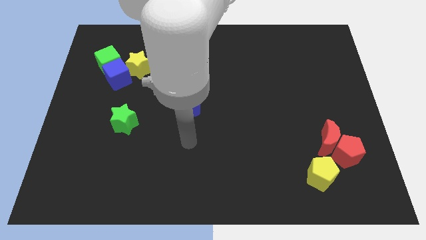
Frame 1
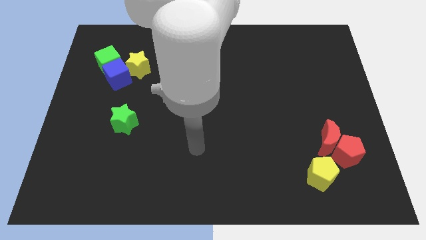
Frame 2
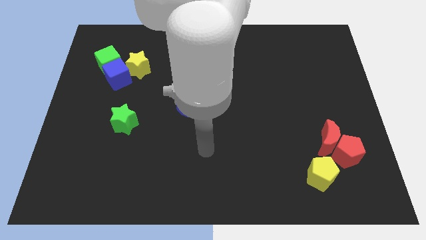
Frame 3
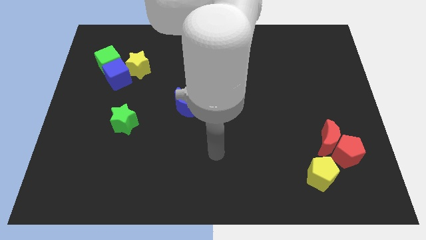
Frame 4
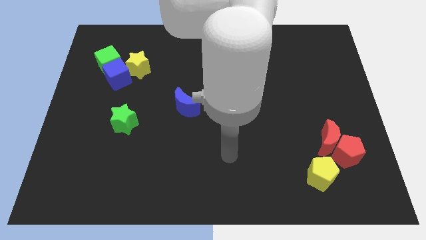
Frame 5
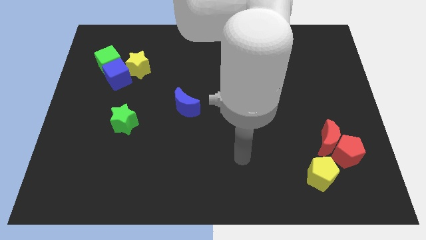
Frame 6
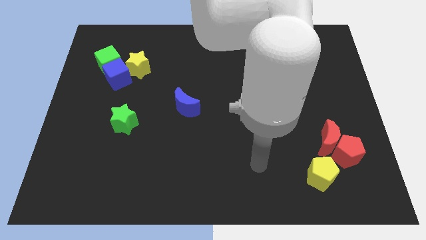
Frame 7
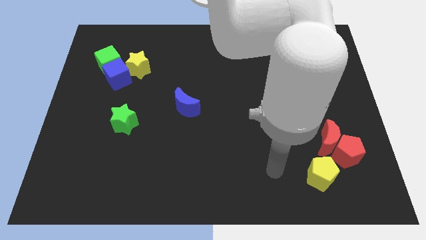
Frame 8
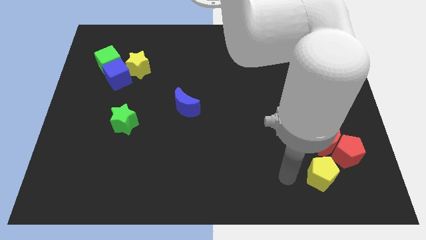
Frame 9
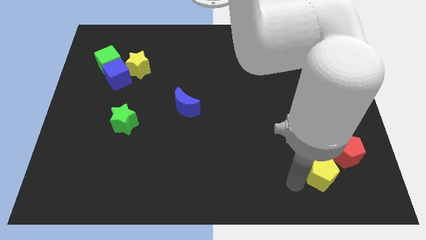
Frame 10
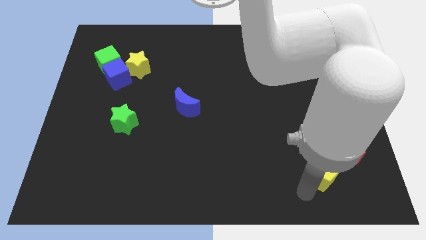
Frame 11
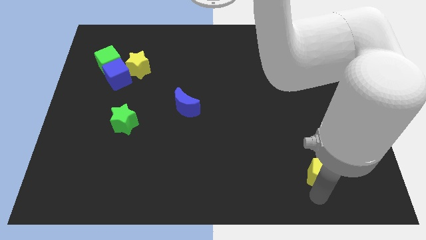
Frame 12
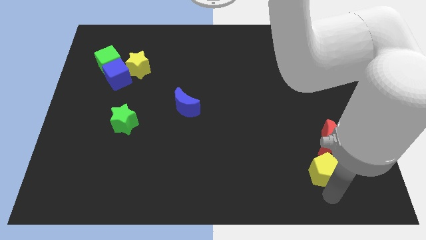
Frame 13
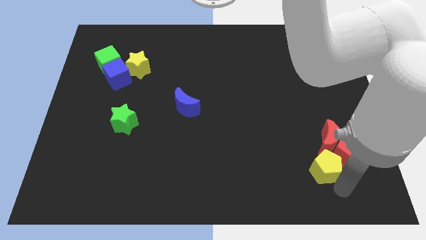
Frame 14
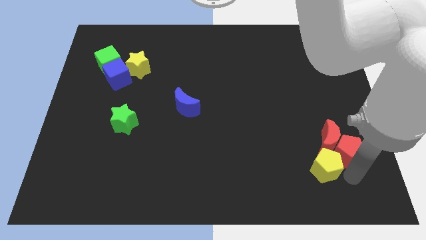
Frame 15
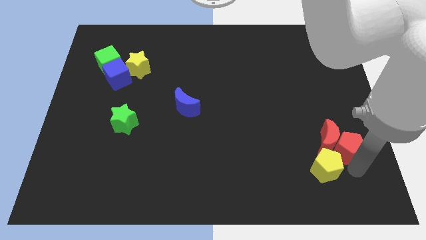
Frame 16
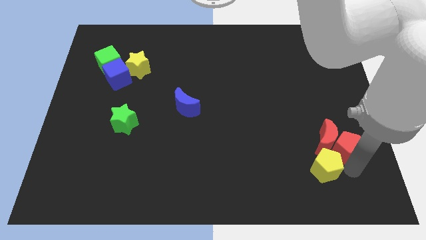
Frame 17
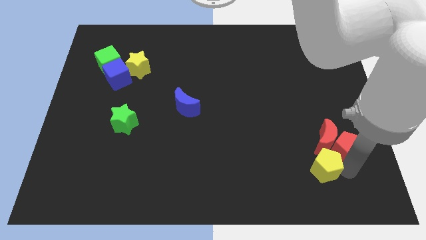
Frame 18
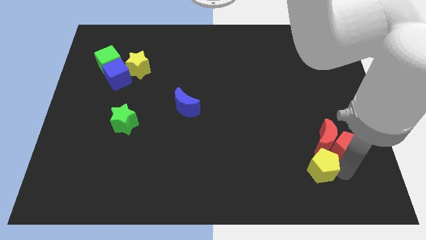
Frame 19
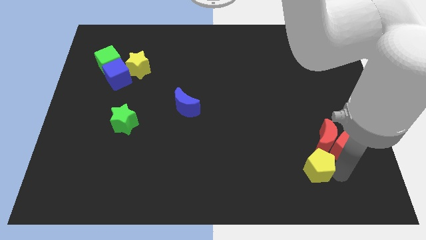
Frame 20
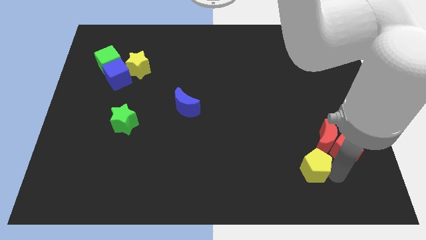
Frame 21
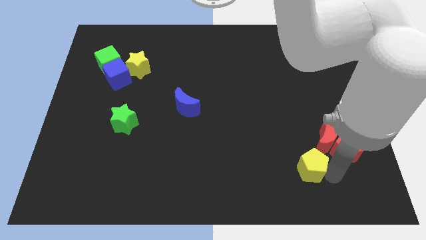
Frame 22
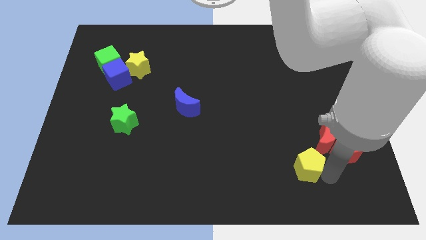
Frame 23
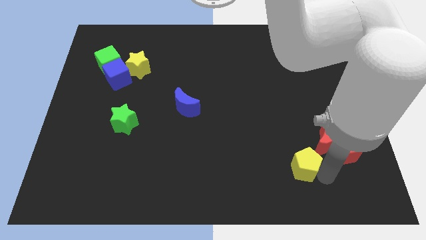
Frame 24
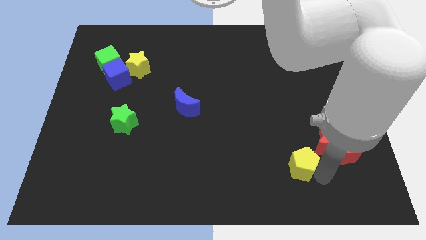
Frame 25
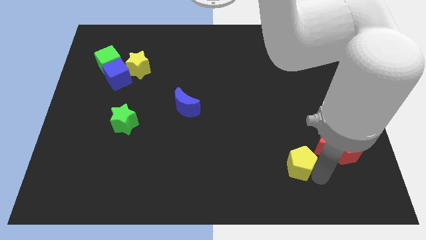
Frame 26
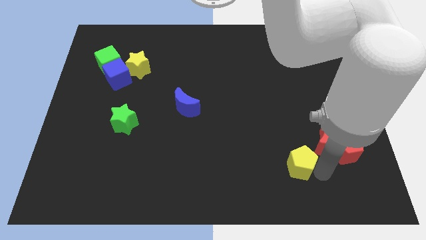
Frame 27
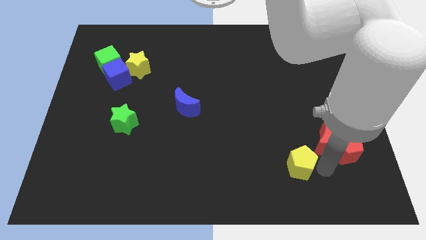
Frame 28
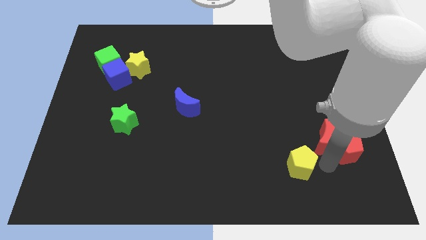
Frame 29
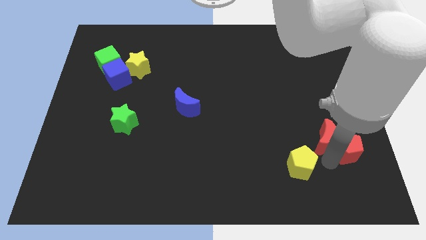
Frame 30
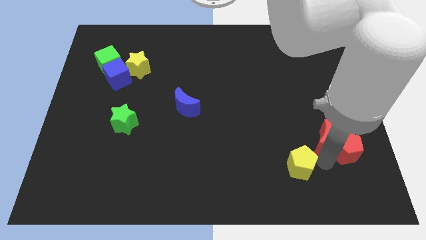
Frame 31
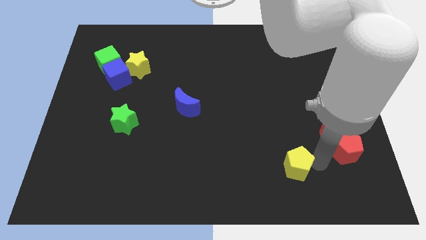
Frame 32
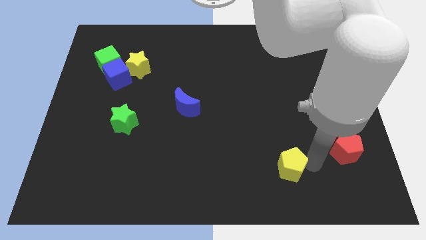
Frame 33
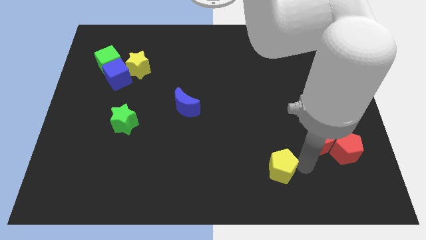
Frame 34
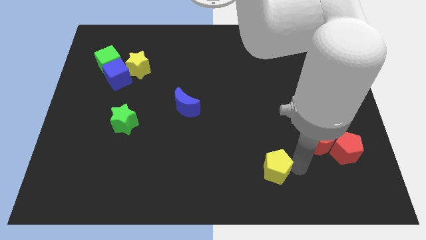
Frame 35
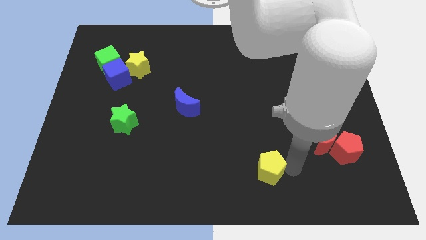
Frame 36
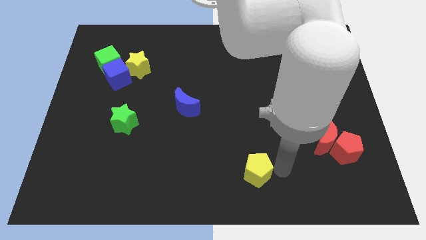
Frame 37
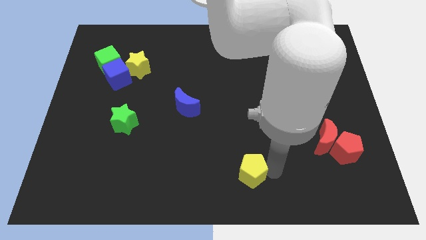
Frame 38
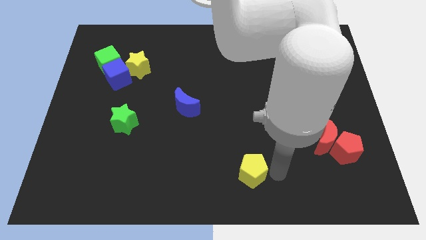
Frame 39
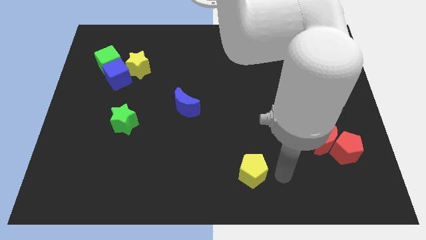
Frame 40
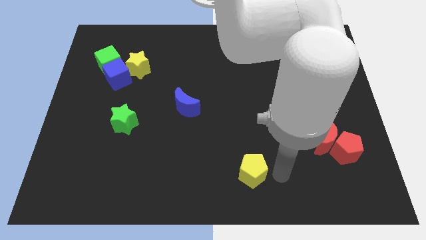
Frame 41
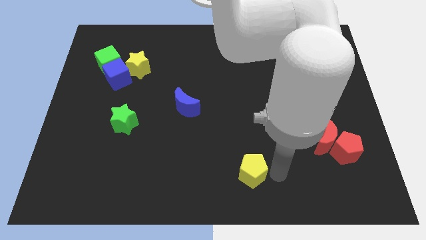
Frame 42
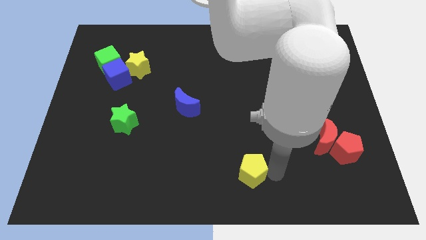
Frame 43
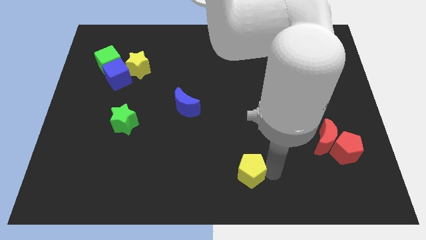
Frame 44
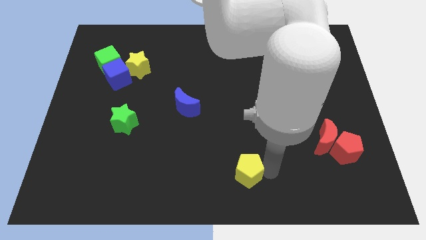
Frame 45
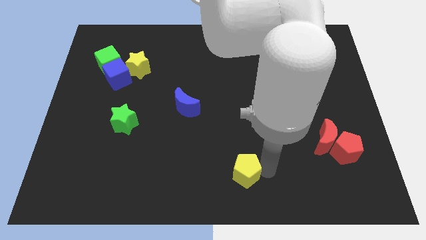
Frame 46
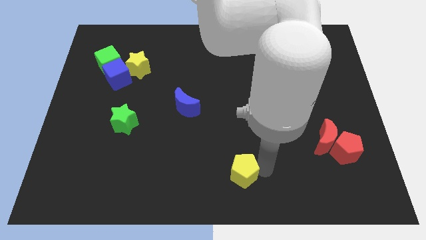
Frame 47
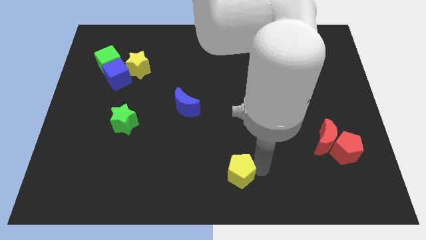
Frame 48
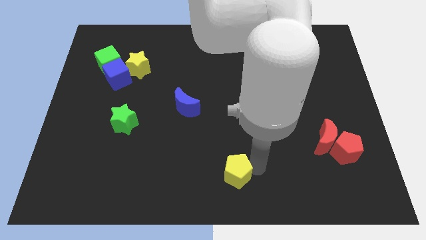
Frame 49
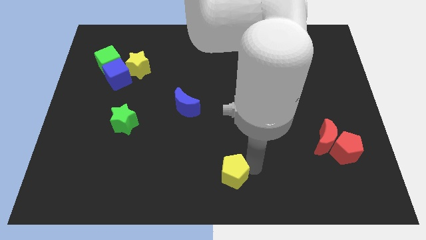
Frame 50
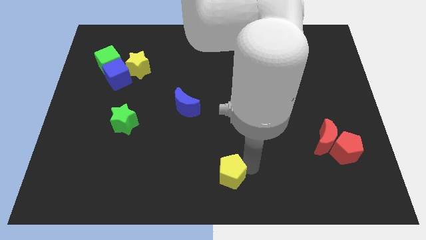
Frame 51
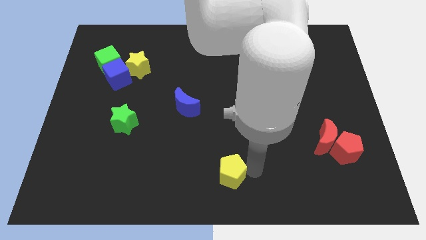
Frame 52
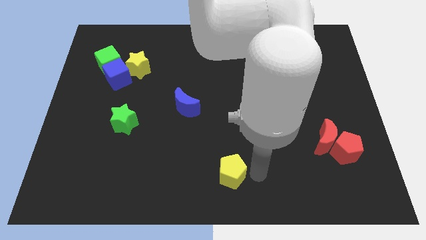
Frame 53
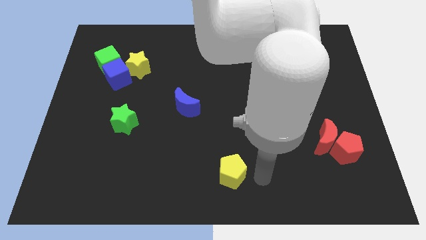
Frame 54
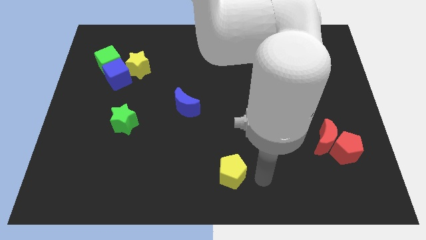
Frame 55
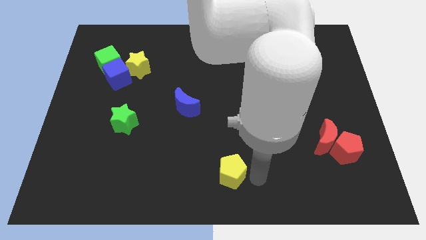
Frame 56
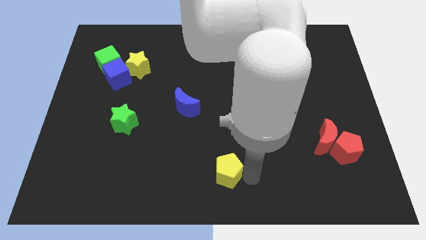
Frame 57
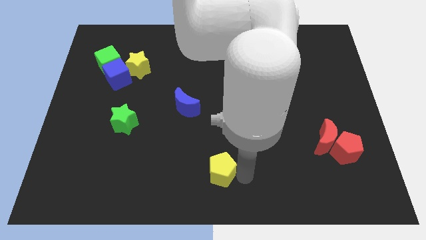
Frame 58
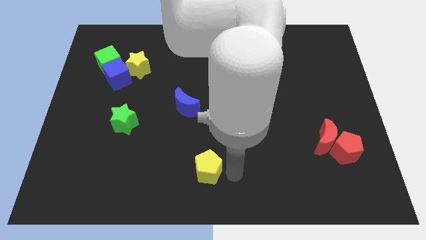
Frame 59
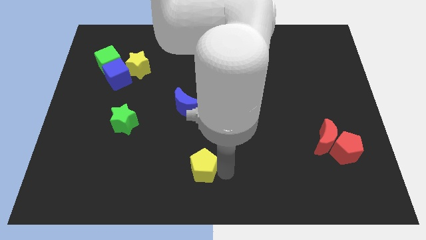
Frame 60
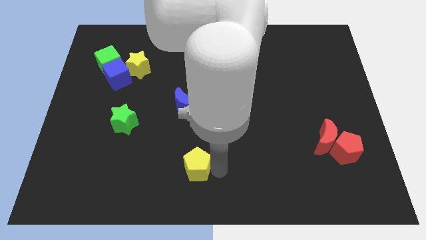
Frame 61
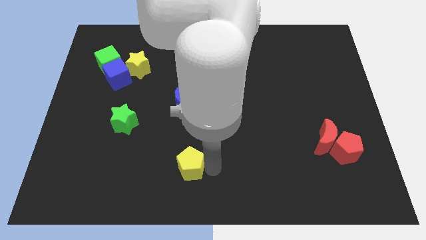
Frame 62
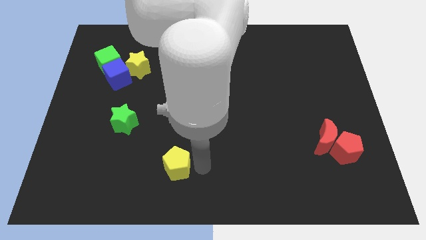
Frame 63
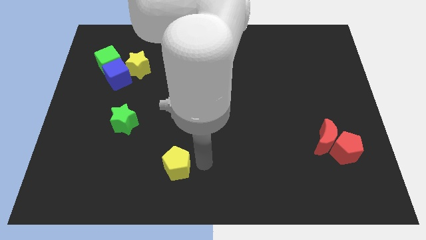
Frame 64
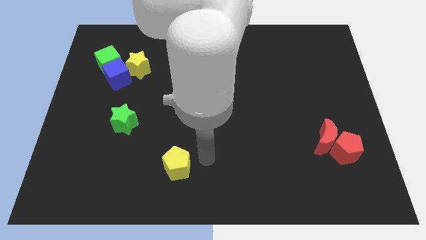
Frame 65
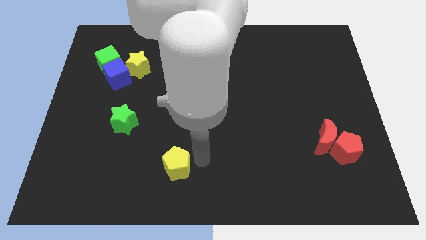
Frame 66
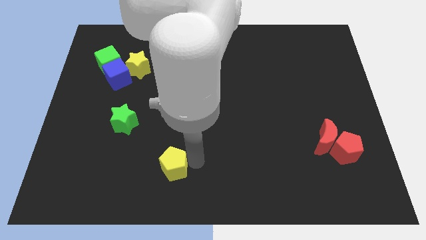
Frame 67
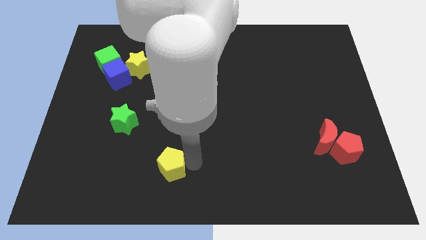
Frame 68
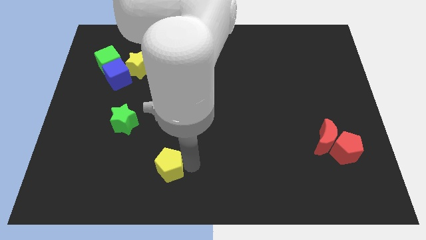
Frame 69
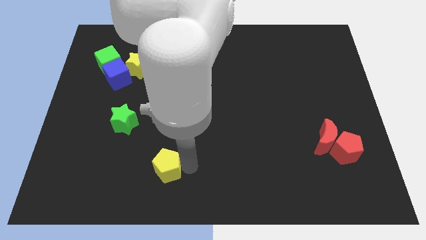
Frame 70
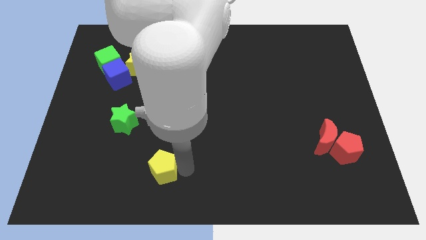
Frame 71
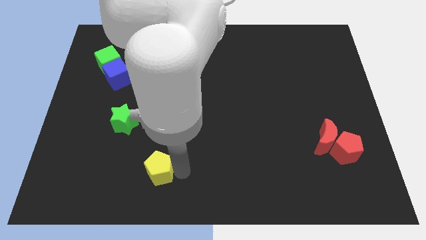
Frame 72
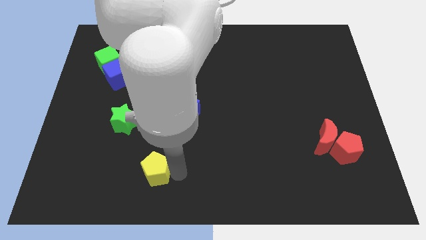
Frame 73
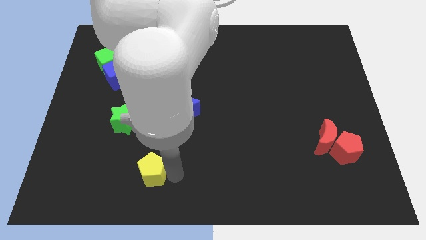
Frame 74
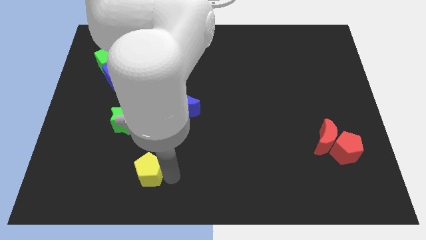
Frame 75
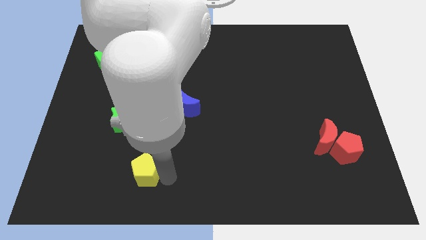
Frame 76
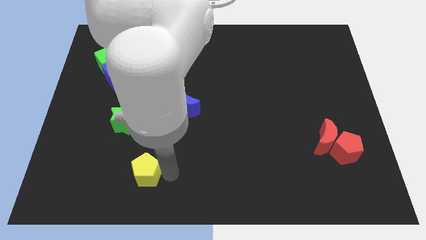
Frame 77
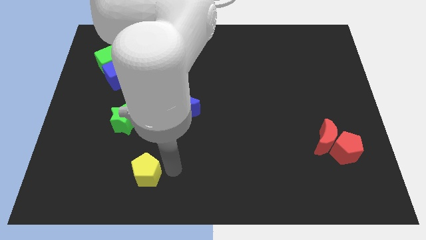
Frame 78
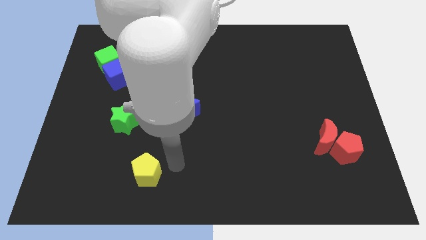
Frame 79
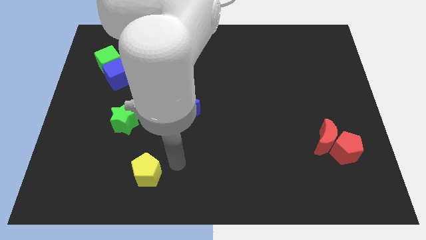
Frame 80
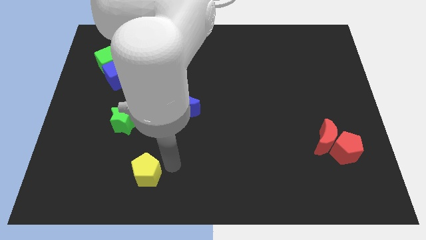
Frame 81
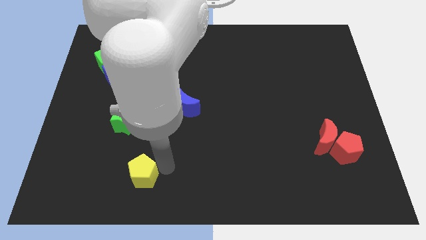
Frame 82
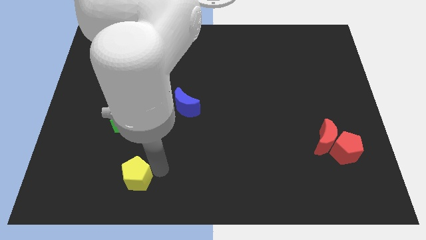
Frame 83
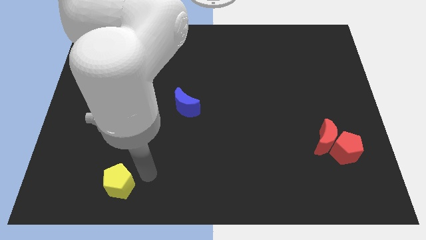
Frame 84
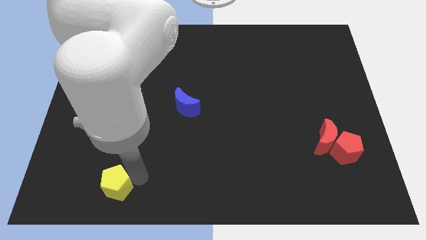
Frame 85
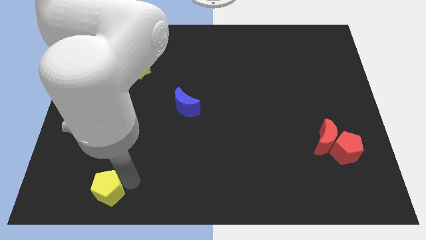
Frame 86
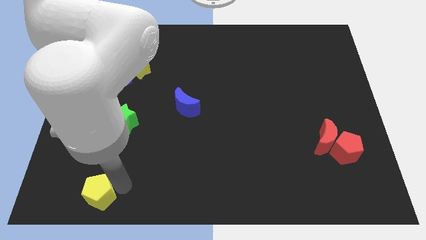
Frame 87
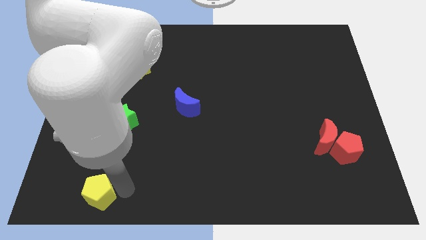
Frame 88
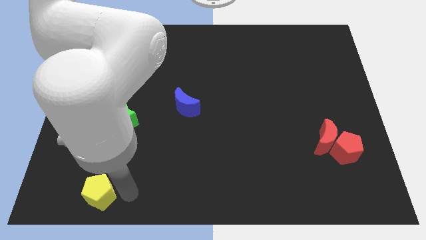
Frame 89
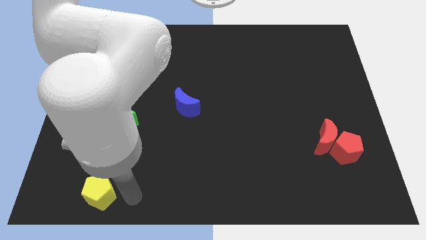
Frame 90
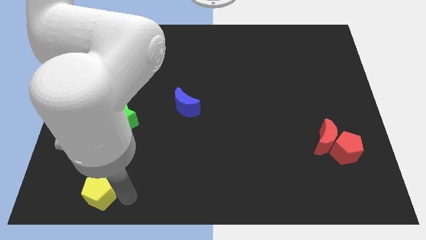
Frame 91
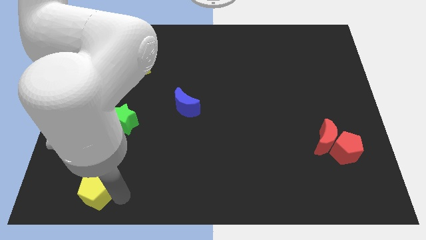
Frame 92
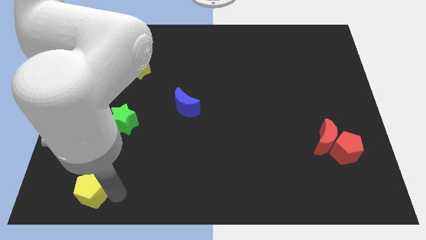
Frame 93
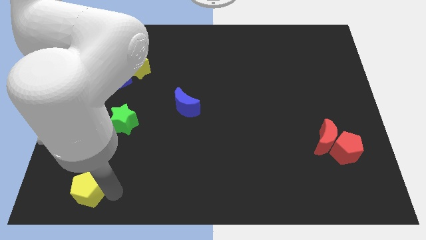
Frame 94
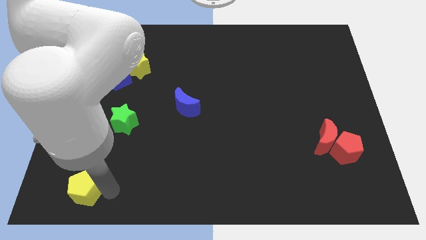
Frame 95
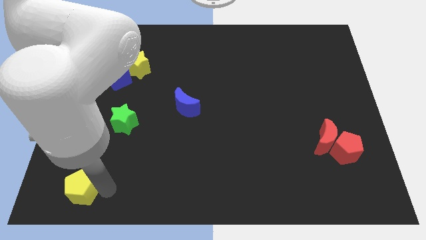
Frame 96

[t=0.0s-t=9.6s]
slide the yellow pentagon to the bottom left of the board
